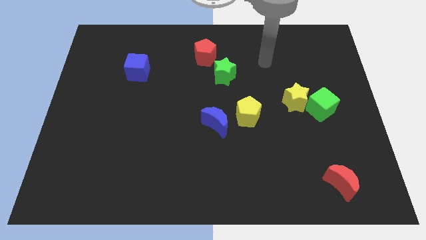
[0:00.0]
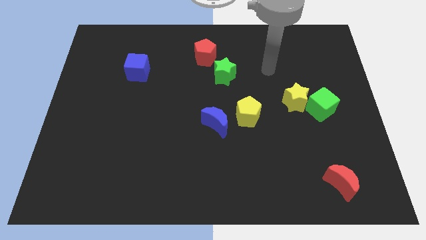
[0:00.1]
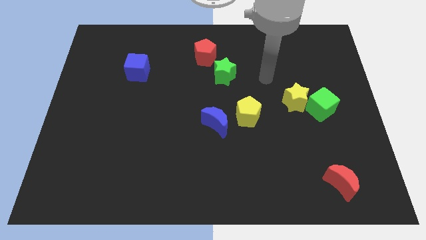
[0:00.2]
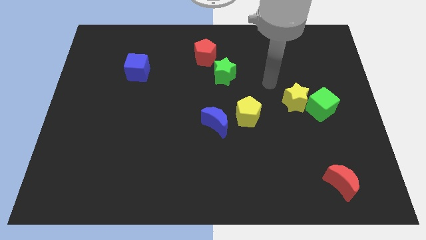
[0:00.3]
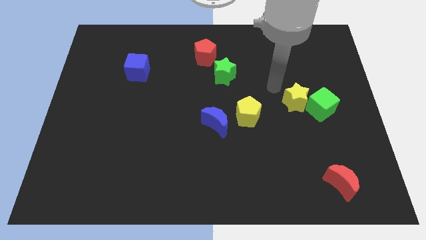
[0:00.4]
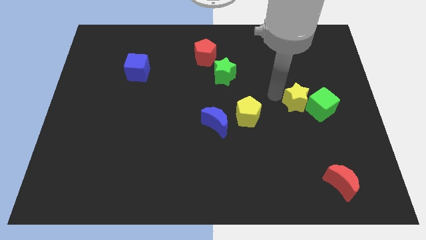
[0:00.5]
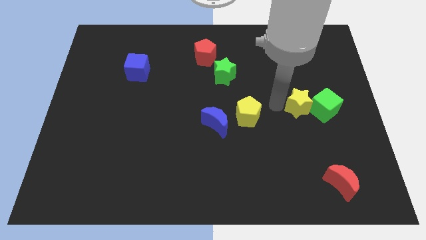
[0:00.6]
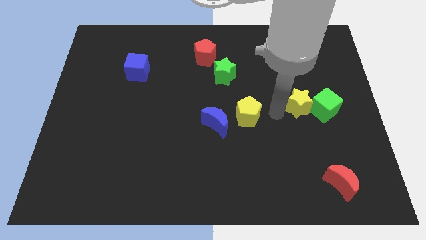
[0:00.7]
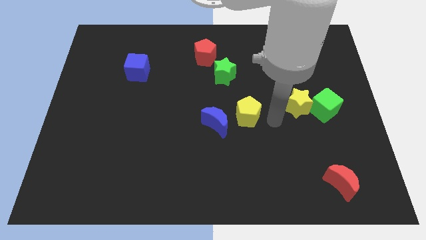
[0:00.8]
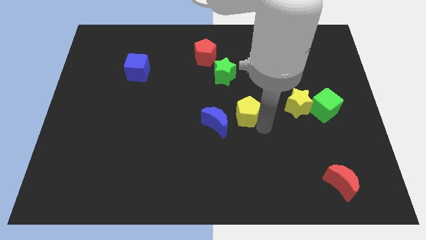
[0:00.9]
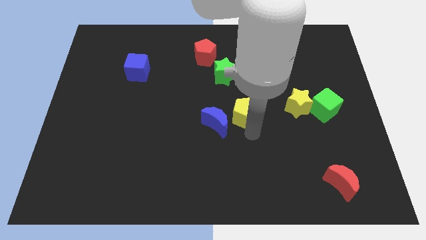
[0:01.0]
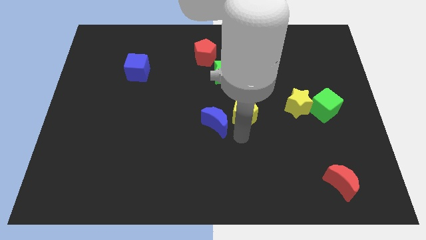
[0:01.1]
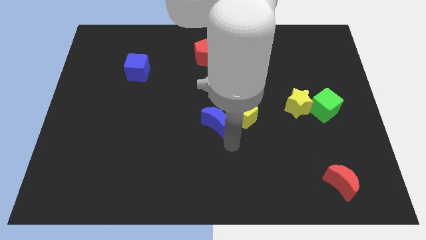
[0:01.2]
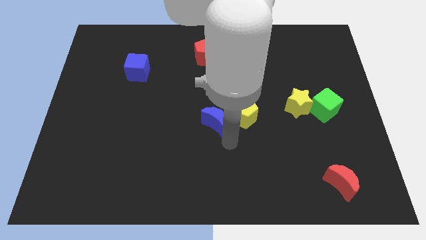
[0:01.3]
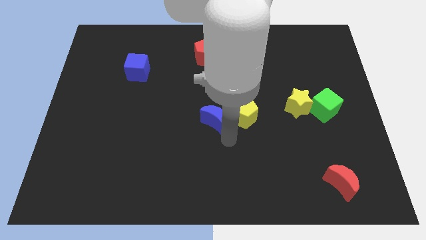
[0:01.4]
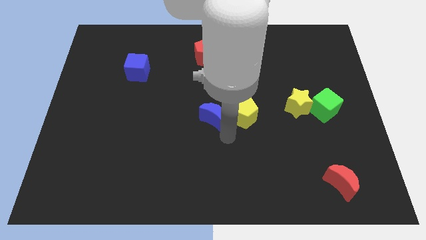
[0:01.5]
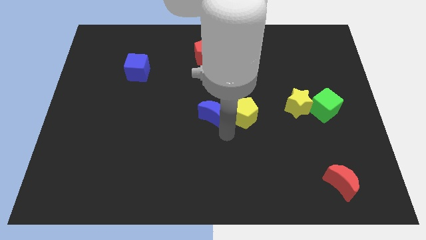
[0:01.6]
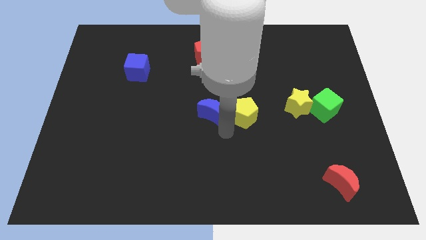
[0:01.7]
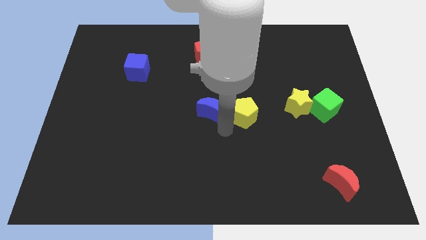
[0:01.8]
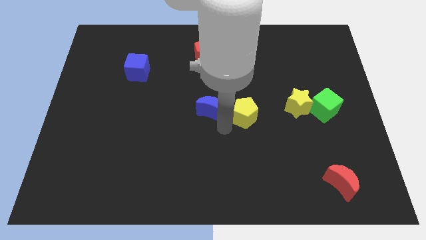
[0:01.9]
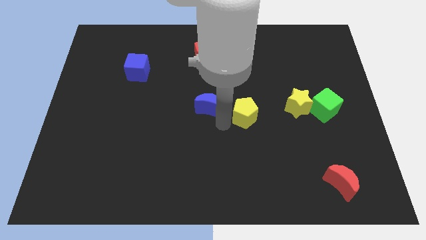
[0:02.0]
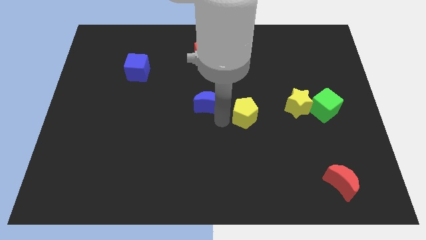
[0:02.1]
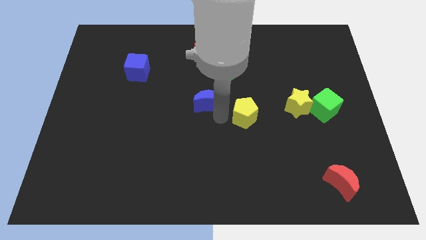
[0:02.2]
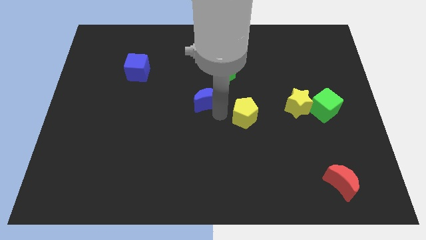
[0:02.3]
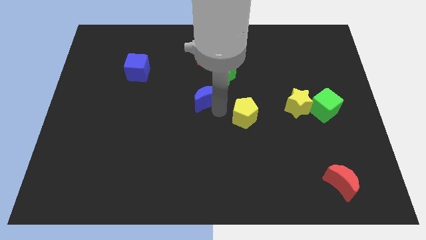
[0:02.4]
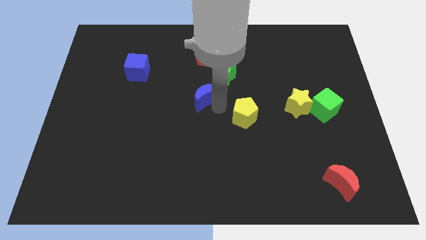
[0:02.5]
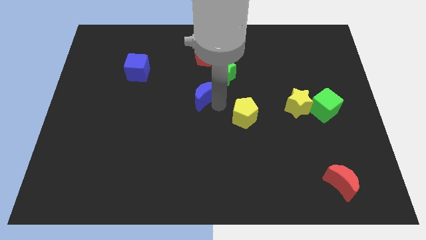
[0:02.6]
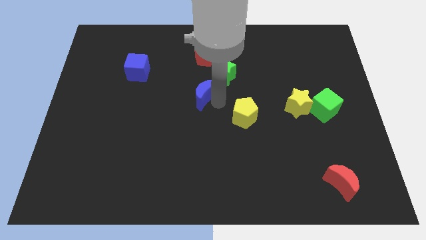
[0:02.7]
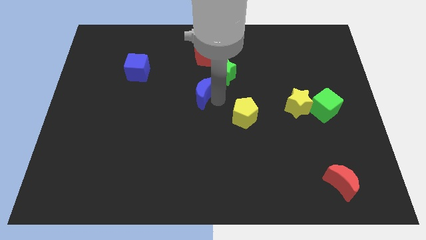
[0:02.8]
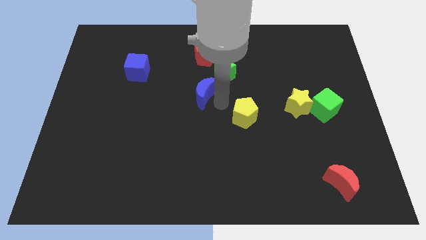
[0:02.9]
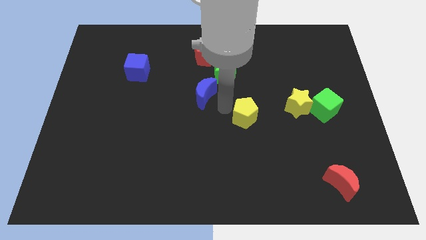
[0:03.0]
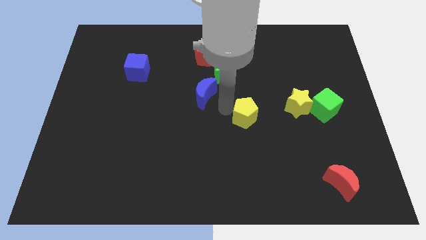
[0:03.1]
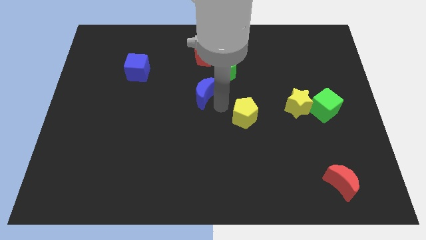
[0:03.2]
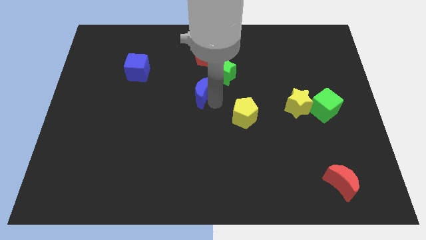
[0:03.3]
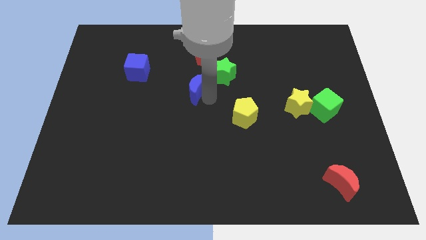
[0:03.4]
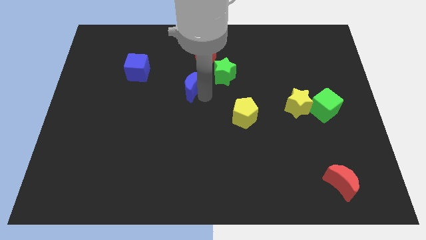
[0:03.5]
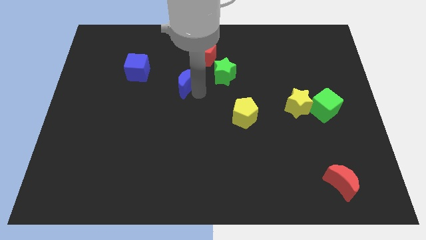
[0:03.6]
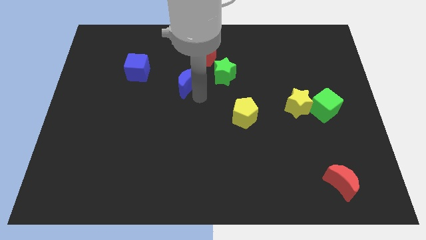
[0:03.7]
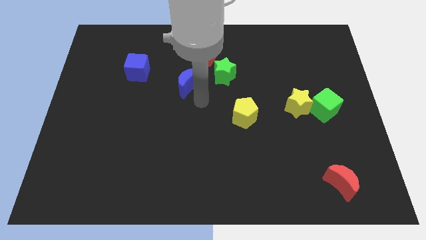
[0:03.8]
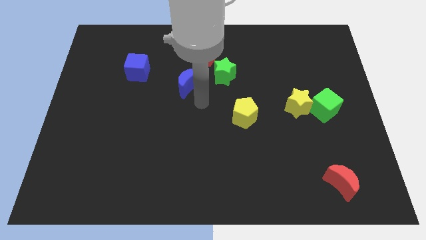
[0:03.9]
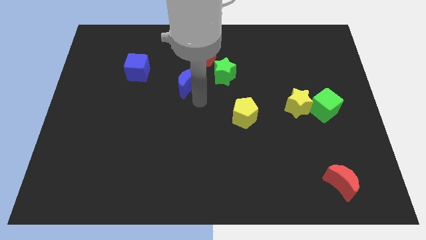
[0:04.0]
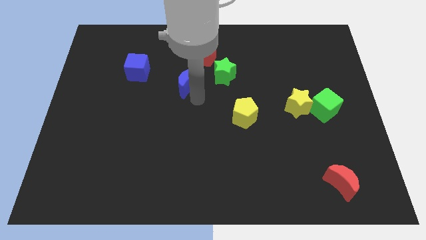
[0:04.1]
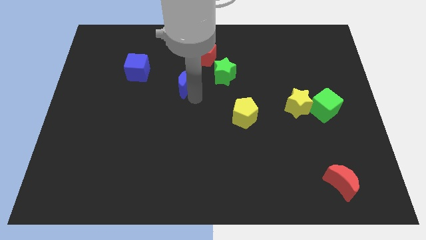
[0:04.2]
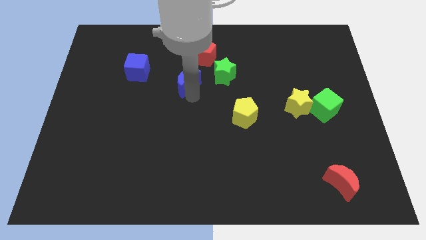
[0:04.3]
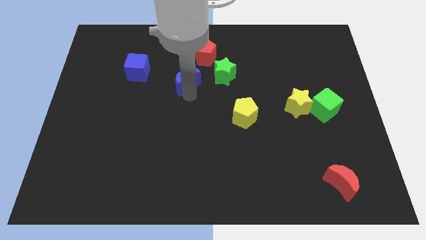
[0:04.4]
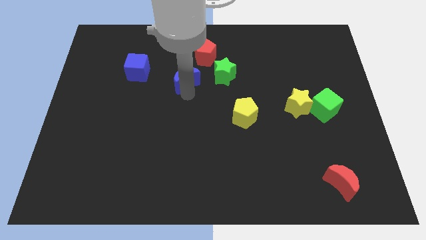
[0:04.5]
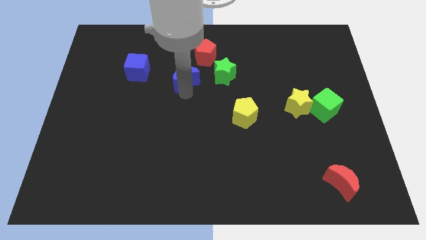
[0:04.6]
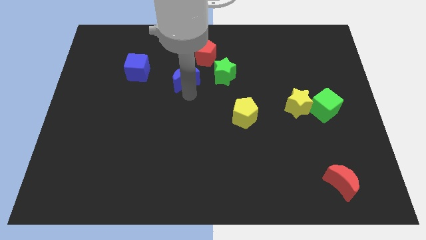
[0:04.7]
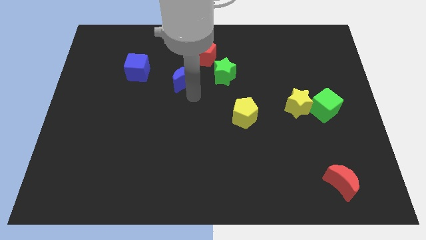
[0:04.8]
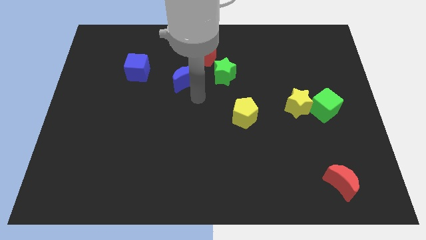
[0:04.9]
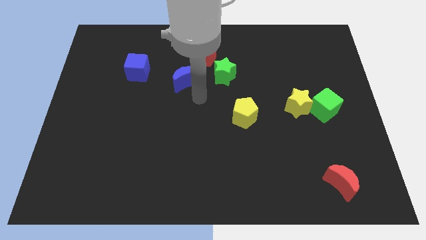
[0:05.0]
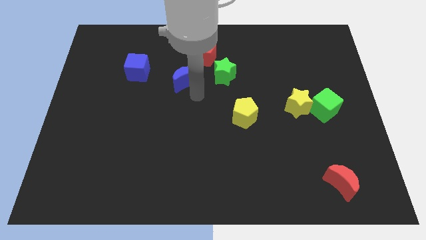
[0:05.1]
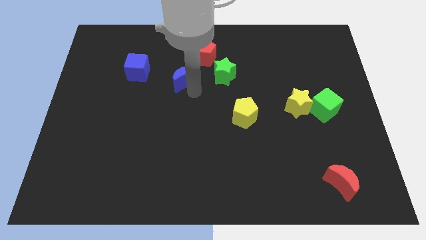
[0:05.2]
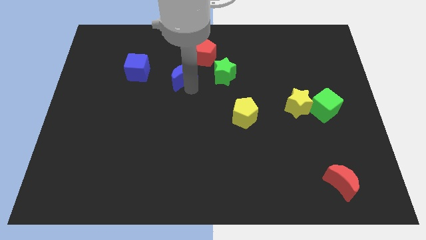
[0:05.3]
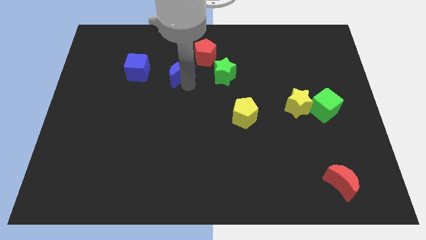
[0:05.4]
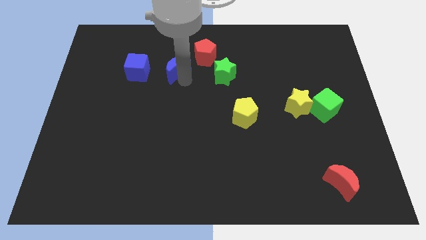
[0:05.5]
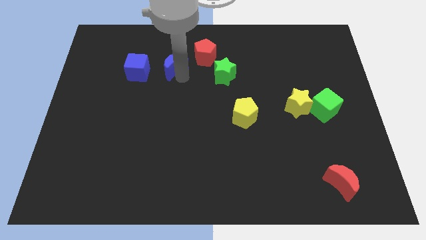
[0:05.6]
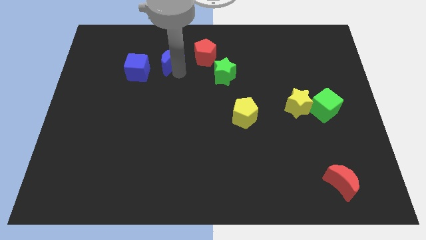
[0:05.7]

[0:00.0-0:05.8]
push the blue moon diagonally up and to the right of the blue cube

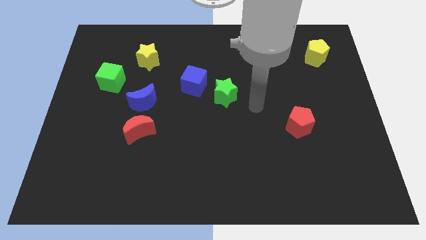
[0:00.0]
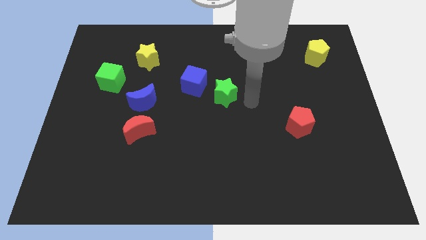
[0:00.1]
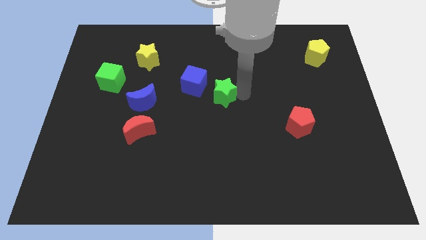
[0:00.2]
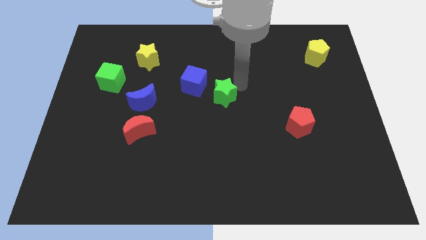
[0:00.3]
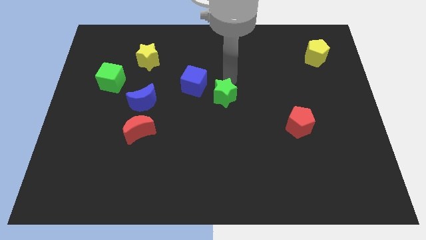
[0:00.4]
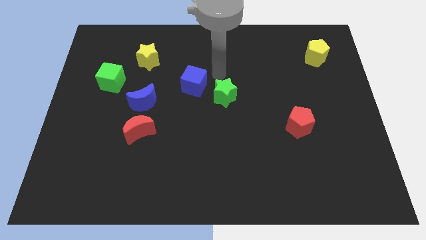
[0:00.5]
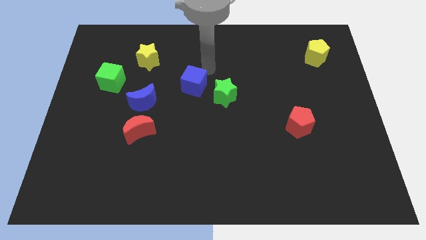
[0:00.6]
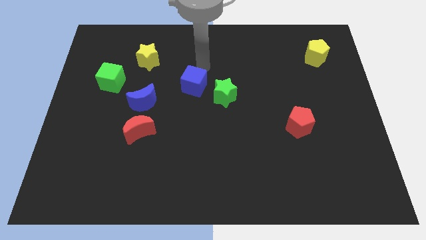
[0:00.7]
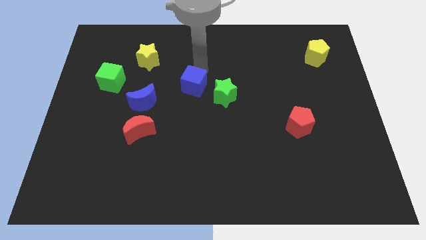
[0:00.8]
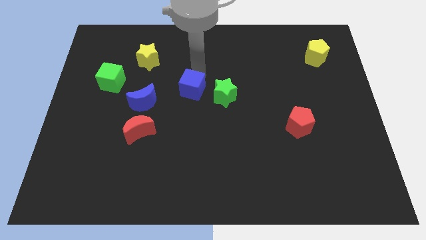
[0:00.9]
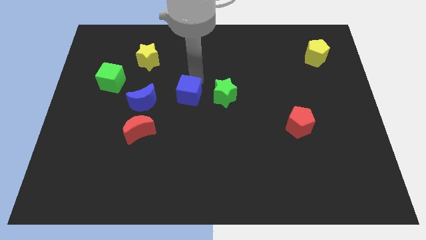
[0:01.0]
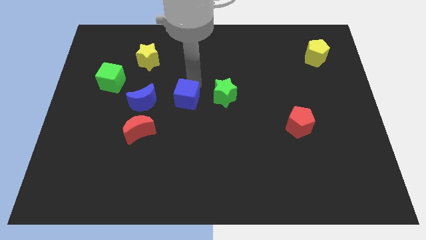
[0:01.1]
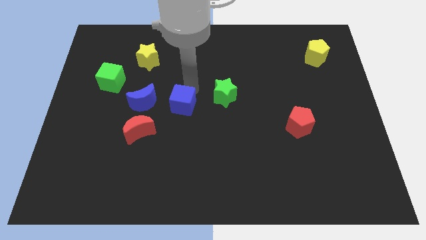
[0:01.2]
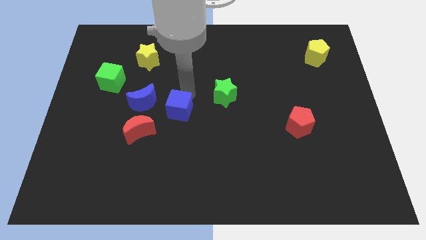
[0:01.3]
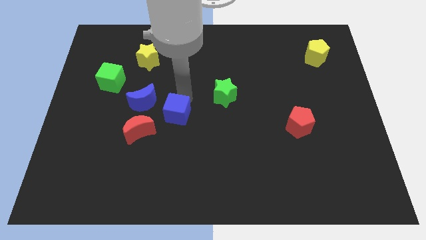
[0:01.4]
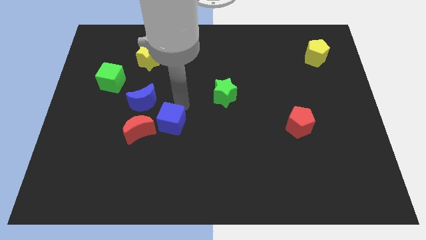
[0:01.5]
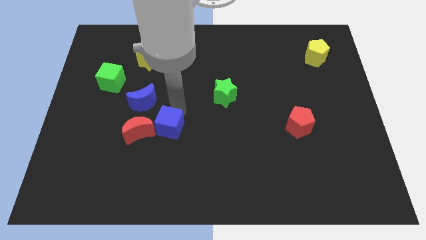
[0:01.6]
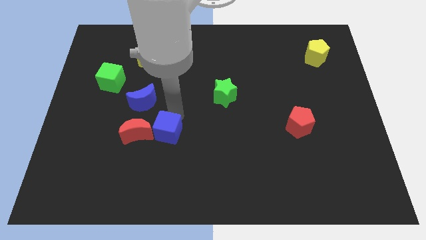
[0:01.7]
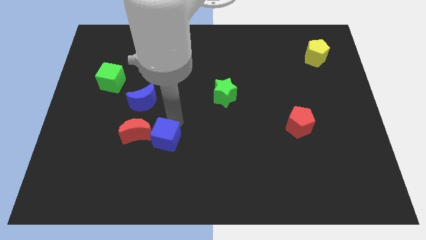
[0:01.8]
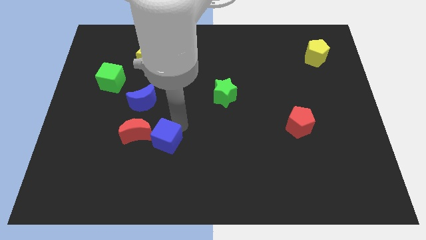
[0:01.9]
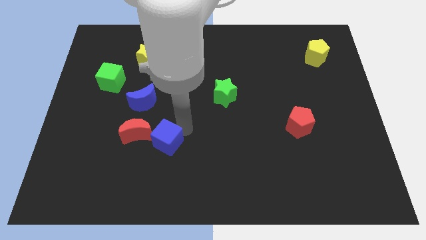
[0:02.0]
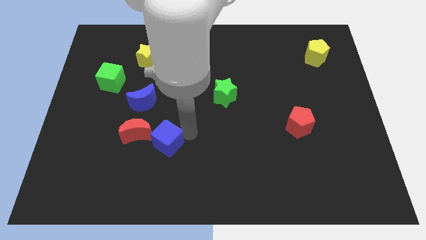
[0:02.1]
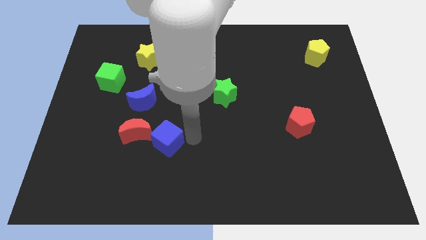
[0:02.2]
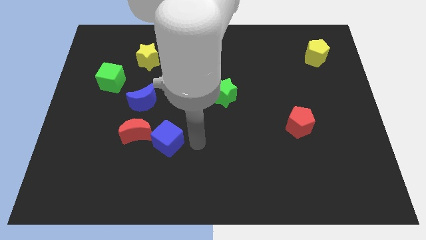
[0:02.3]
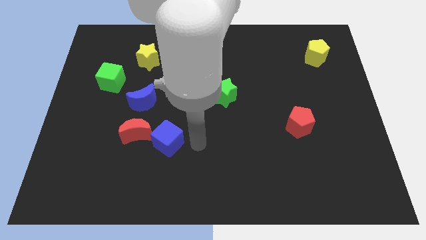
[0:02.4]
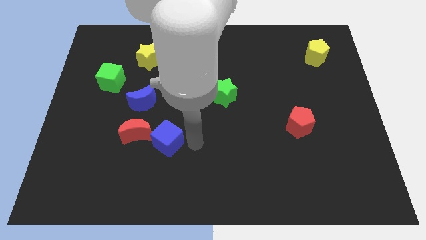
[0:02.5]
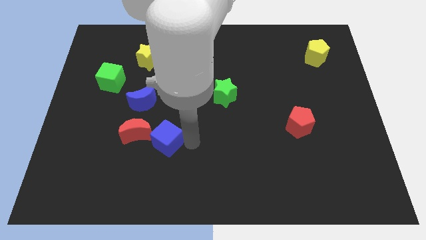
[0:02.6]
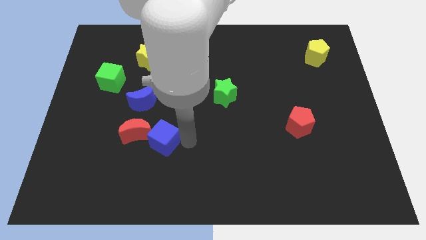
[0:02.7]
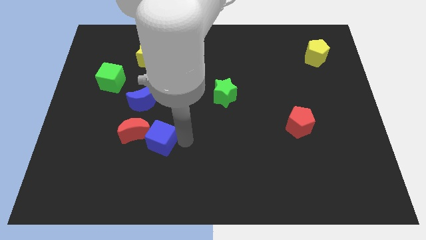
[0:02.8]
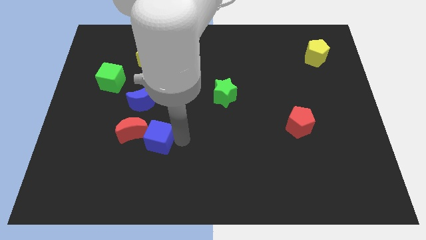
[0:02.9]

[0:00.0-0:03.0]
move the blue cube to the bottom side of the blue moon
